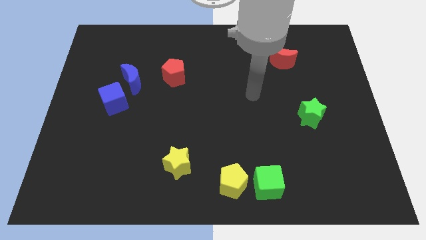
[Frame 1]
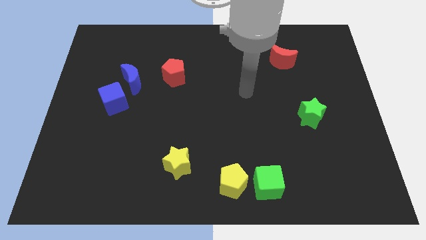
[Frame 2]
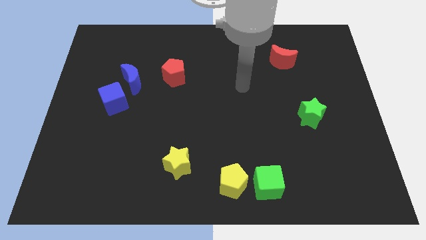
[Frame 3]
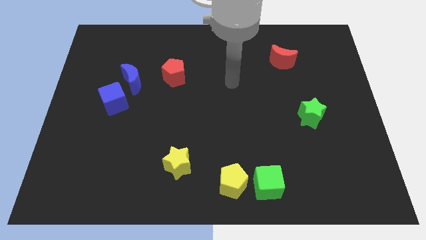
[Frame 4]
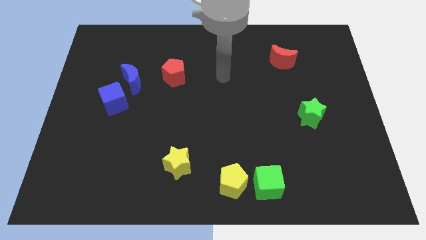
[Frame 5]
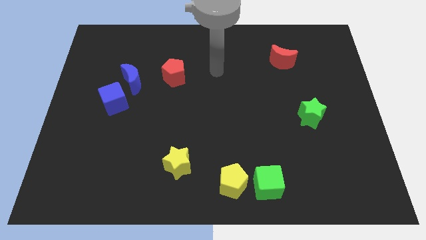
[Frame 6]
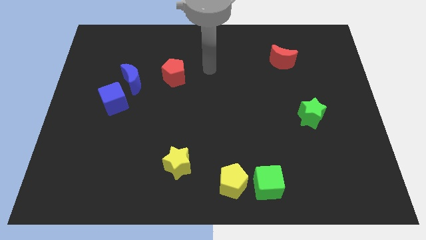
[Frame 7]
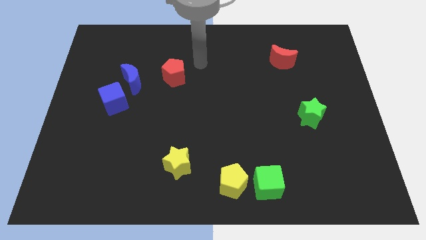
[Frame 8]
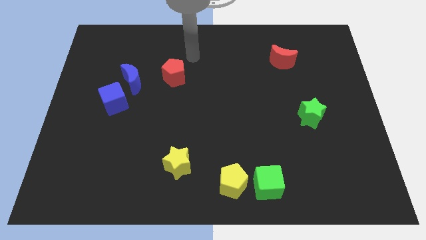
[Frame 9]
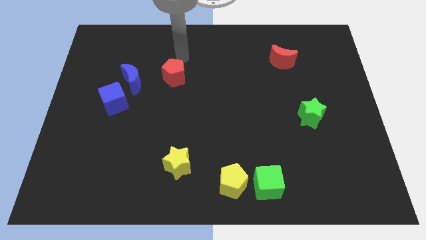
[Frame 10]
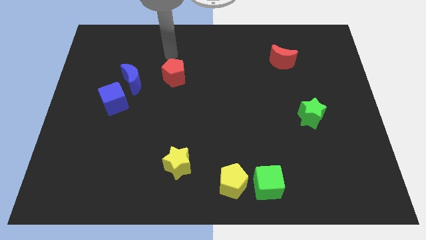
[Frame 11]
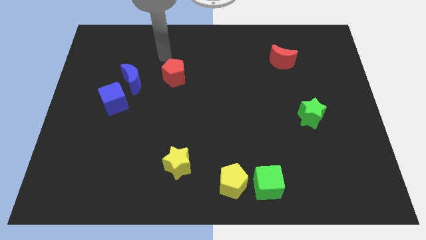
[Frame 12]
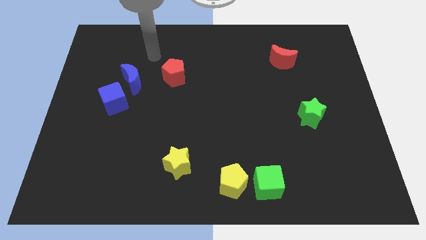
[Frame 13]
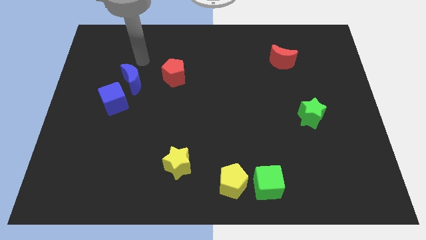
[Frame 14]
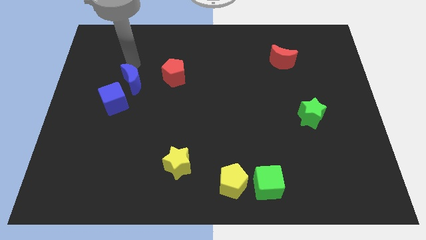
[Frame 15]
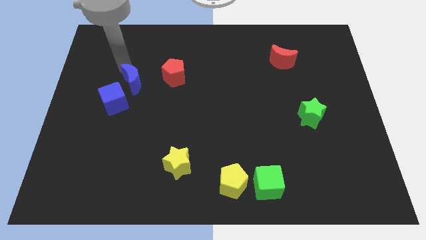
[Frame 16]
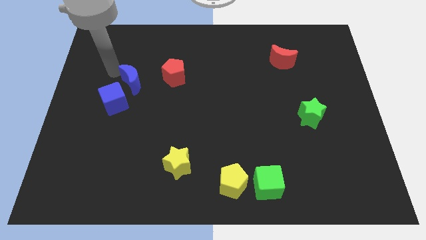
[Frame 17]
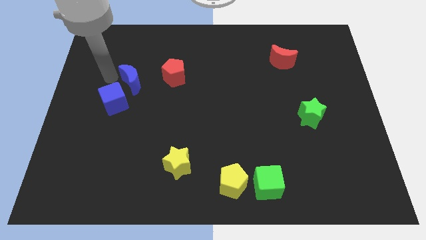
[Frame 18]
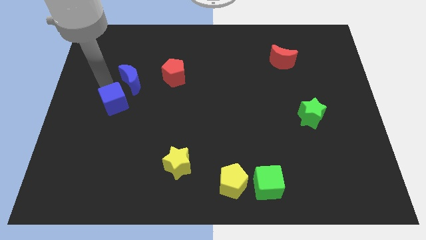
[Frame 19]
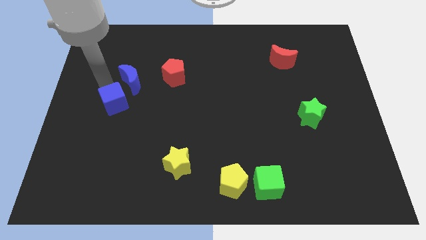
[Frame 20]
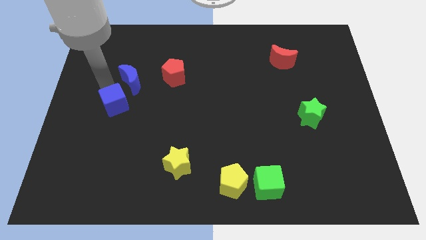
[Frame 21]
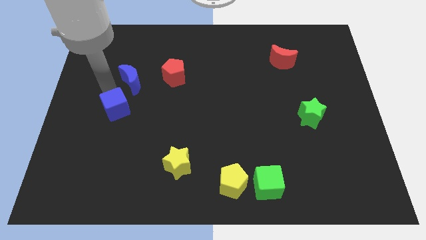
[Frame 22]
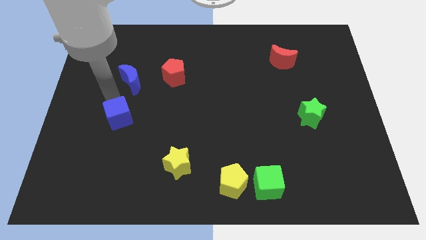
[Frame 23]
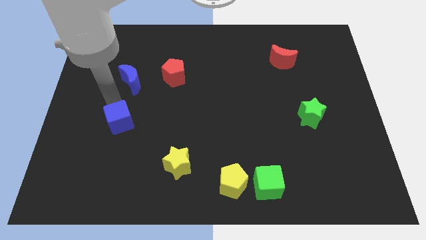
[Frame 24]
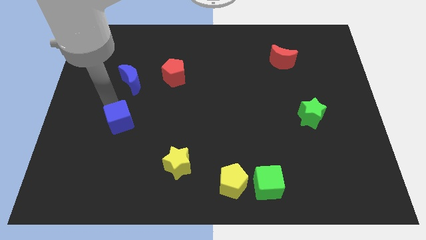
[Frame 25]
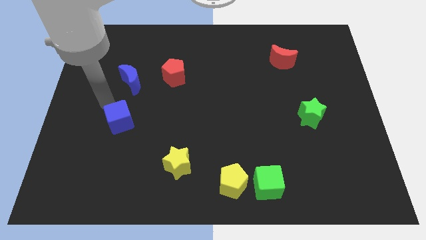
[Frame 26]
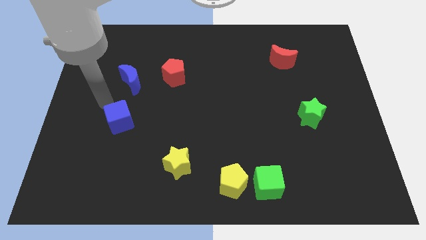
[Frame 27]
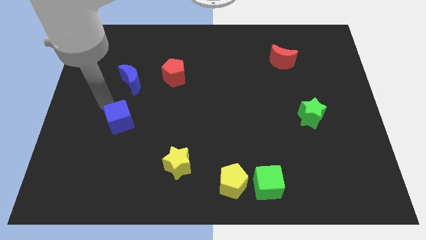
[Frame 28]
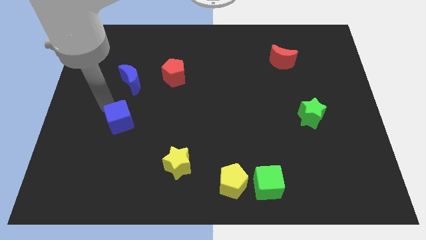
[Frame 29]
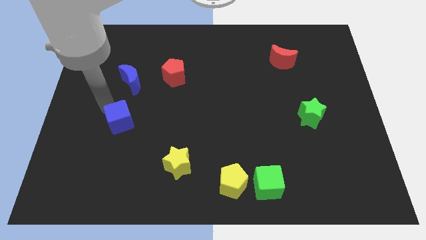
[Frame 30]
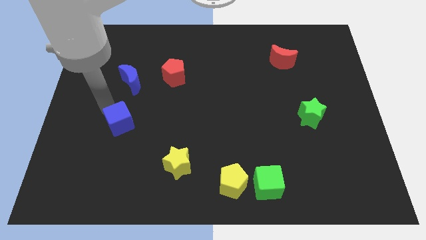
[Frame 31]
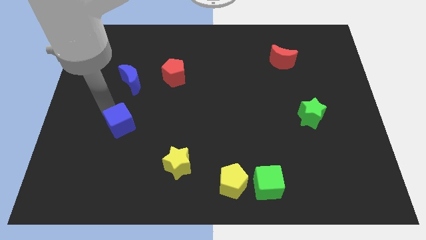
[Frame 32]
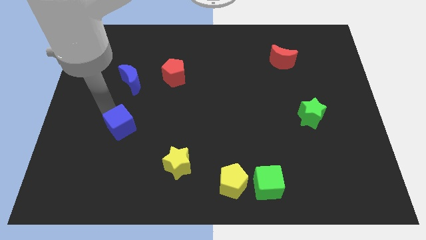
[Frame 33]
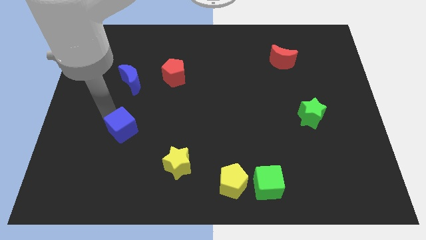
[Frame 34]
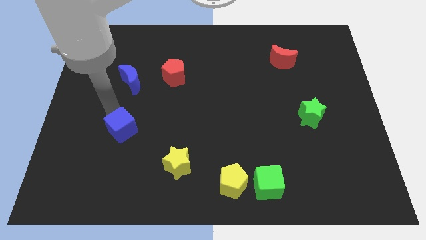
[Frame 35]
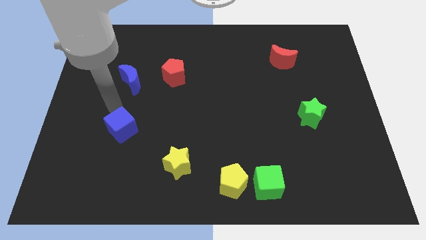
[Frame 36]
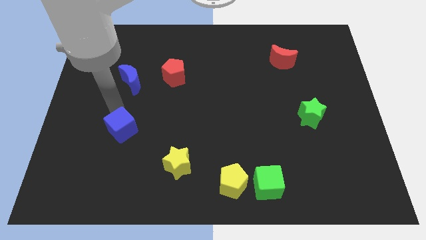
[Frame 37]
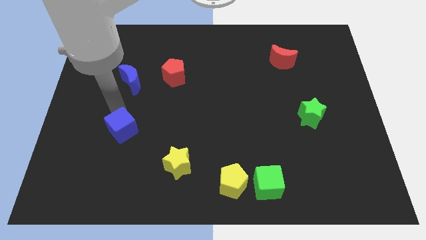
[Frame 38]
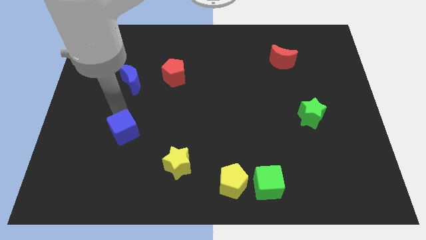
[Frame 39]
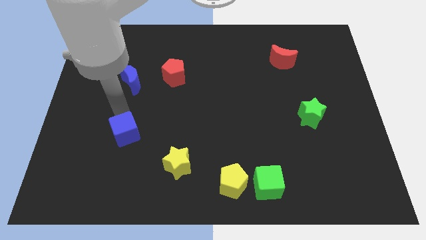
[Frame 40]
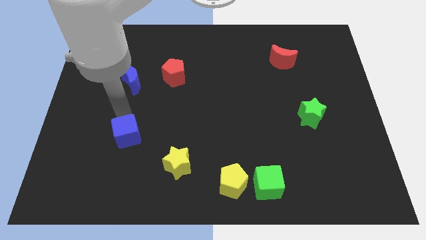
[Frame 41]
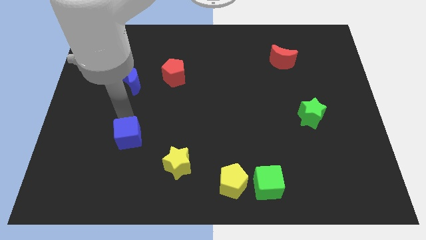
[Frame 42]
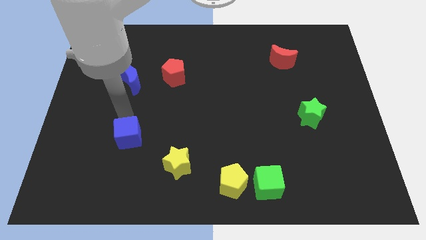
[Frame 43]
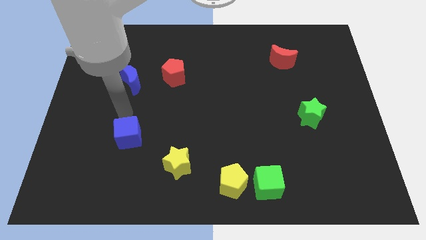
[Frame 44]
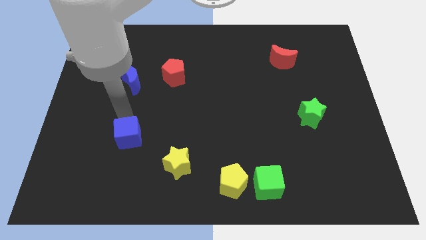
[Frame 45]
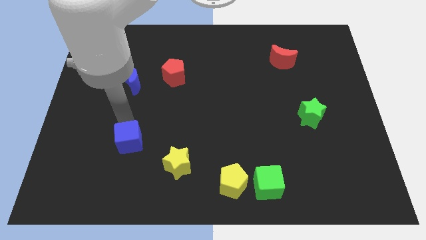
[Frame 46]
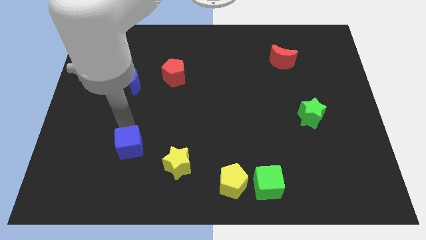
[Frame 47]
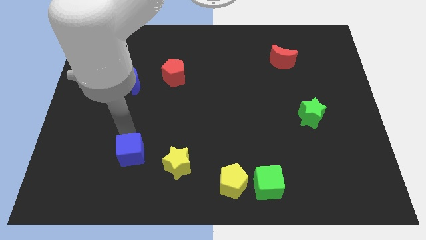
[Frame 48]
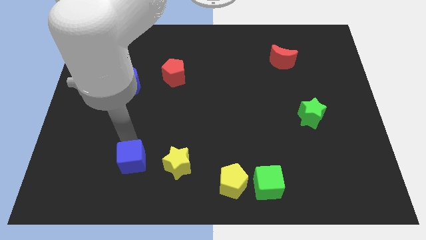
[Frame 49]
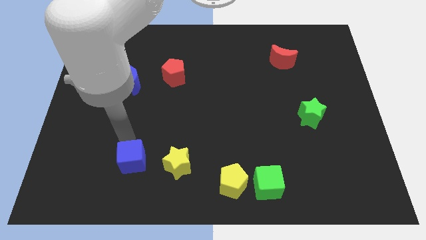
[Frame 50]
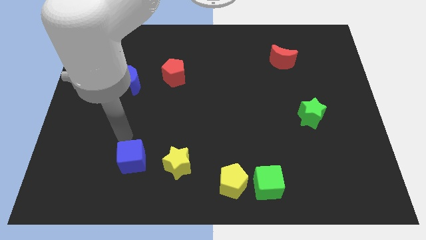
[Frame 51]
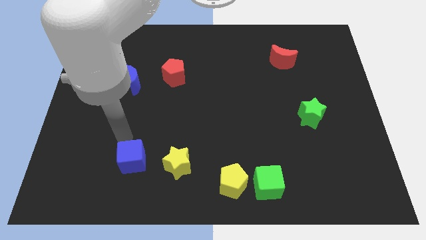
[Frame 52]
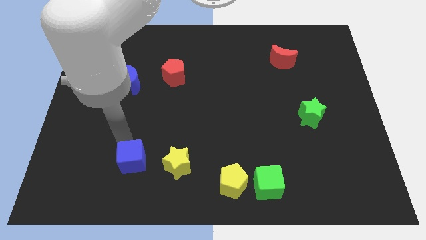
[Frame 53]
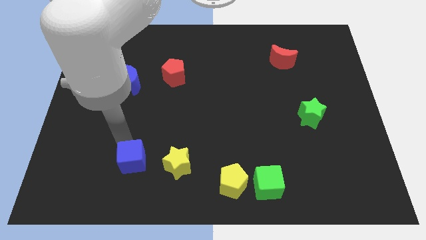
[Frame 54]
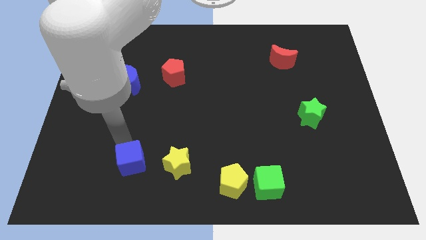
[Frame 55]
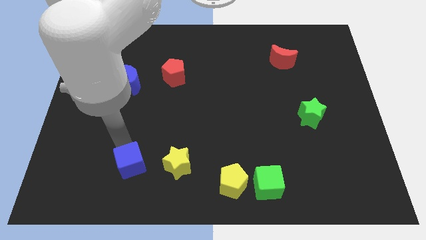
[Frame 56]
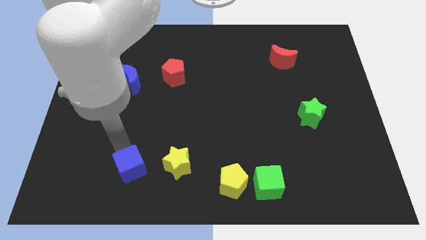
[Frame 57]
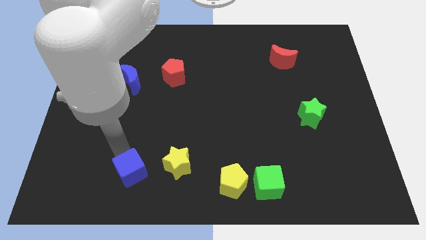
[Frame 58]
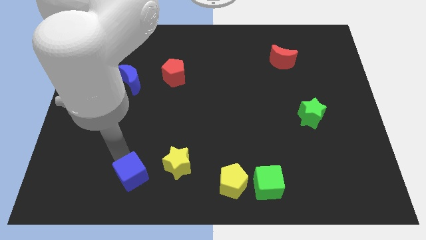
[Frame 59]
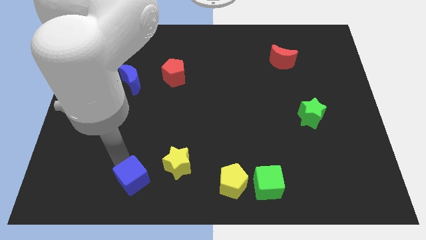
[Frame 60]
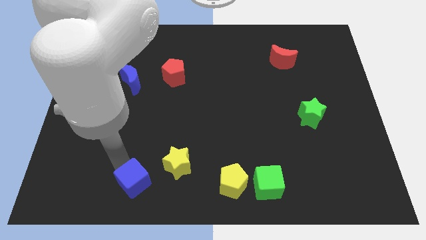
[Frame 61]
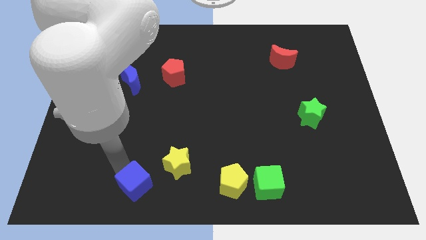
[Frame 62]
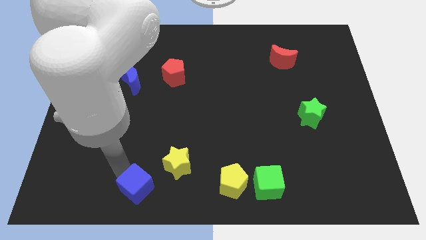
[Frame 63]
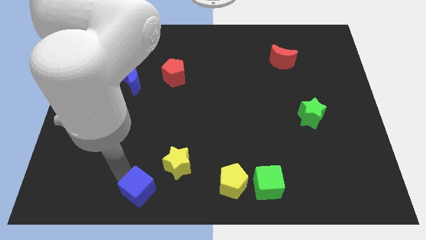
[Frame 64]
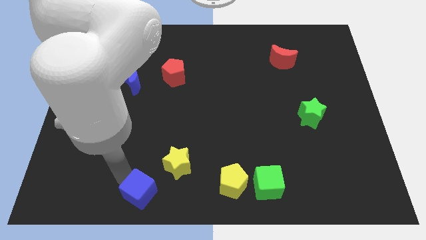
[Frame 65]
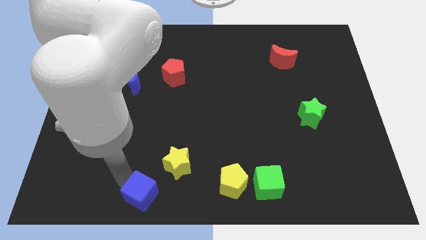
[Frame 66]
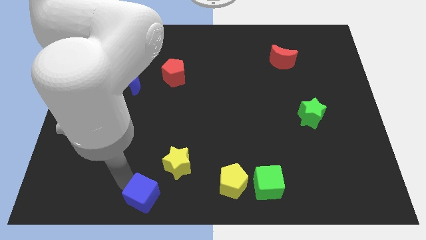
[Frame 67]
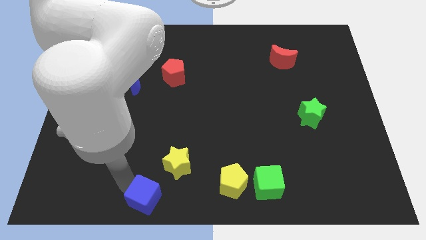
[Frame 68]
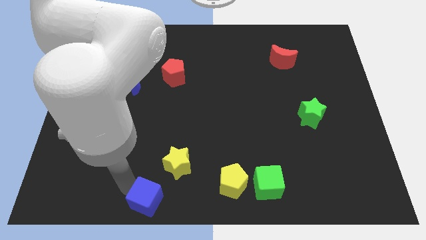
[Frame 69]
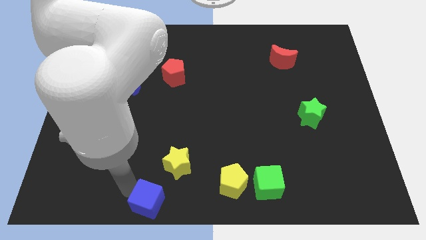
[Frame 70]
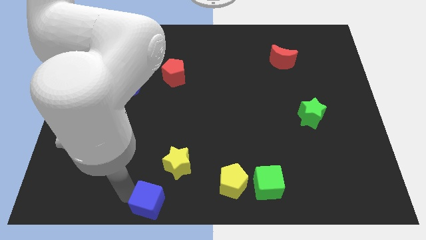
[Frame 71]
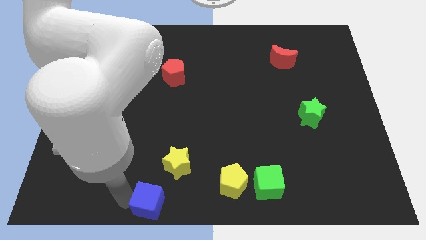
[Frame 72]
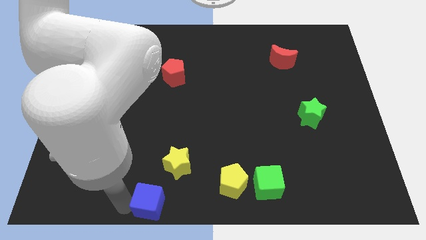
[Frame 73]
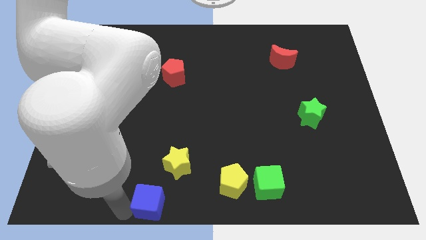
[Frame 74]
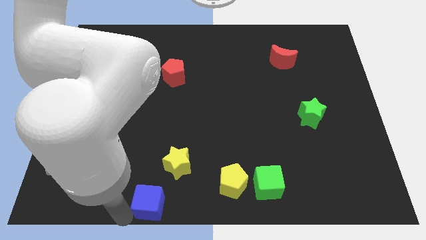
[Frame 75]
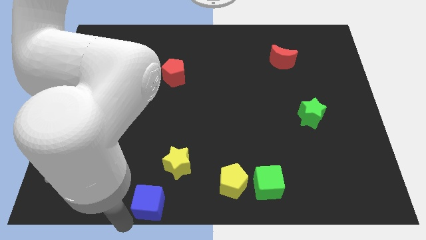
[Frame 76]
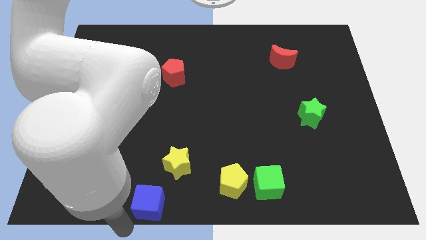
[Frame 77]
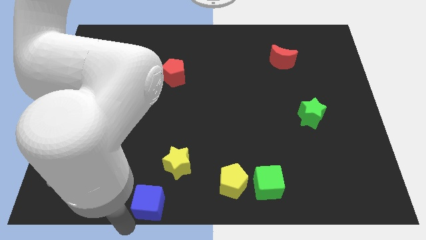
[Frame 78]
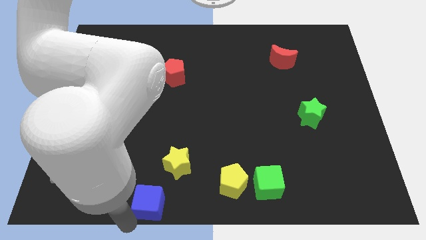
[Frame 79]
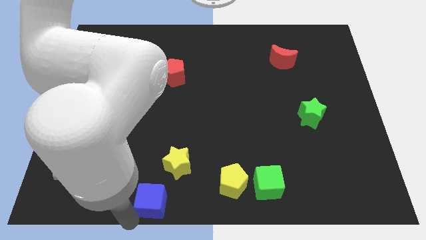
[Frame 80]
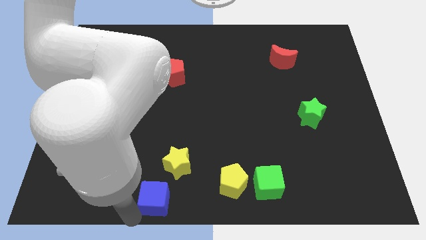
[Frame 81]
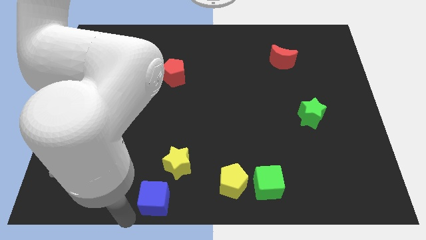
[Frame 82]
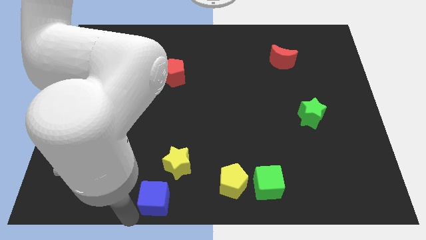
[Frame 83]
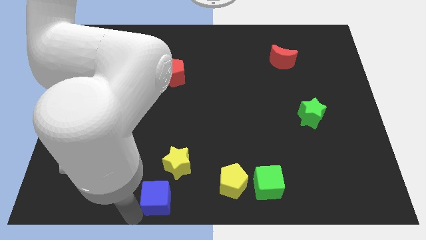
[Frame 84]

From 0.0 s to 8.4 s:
push the blue cube to the left side of the yellow pentagon
